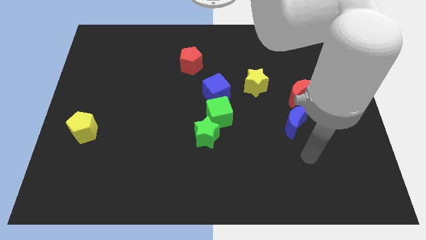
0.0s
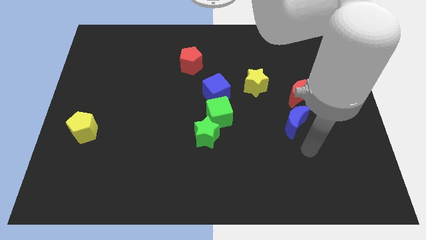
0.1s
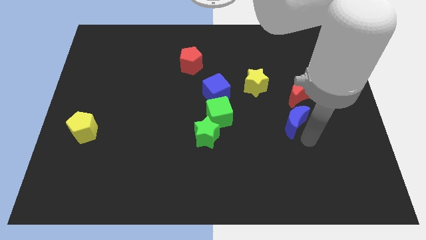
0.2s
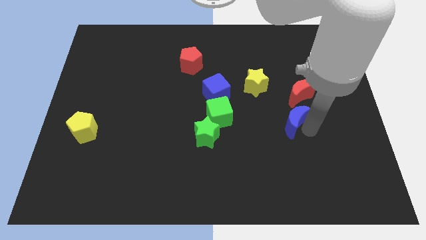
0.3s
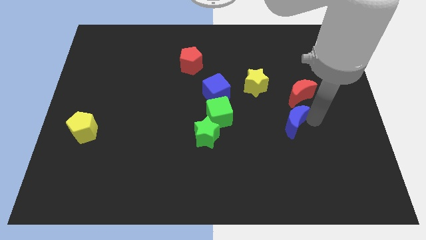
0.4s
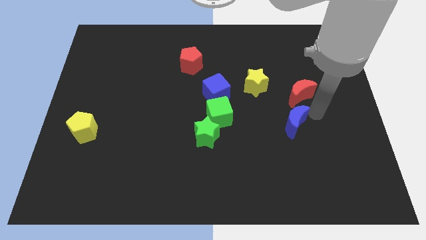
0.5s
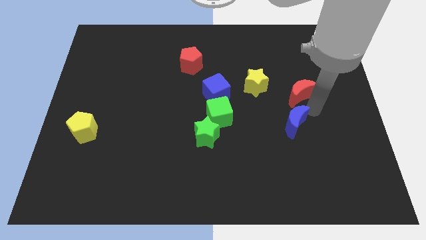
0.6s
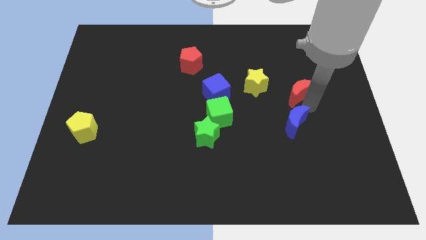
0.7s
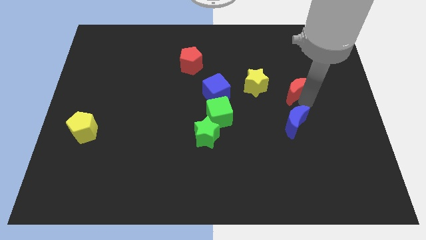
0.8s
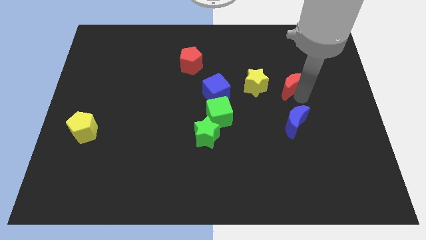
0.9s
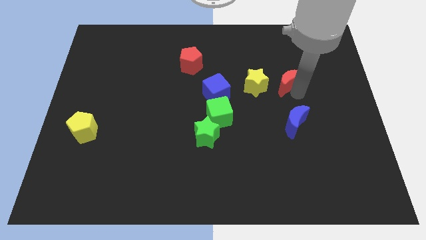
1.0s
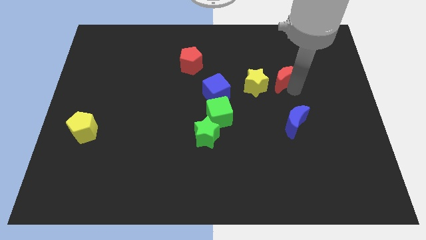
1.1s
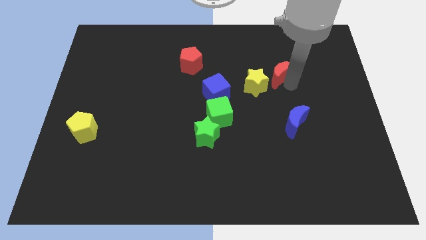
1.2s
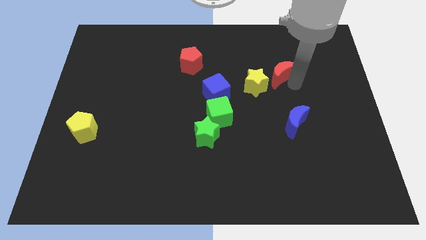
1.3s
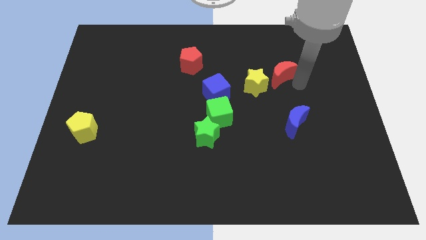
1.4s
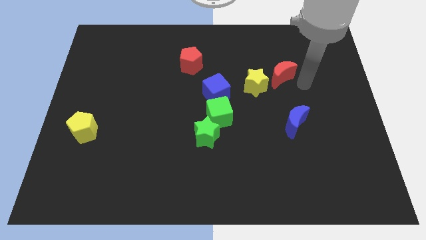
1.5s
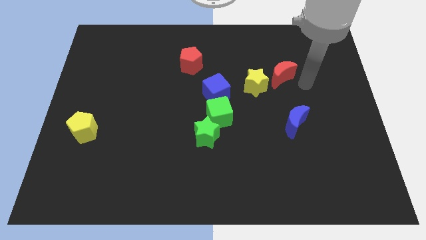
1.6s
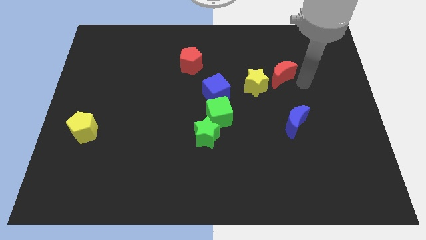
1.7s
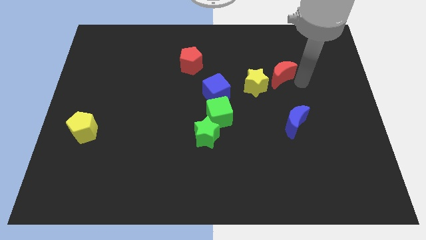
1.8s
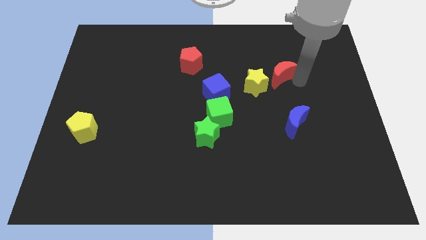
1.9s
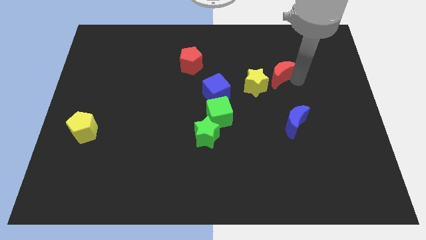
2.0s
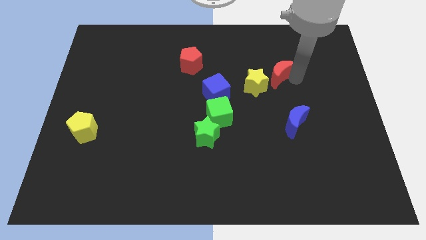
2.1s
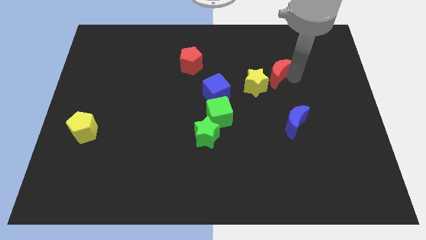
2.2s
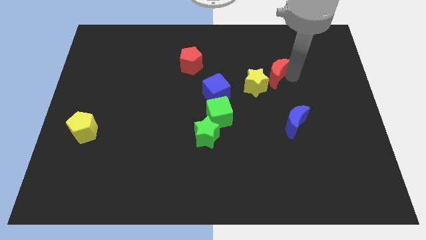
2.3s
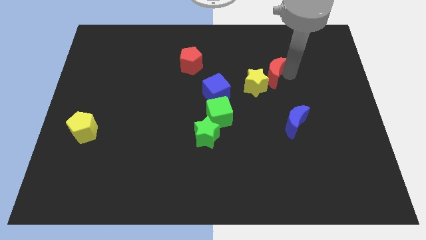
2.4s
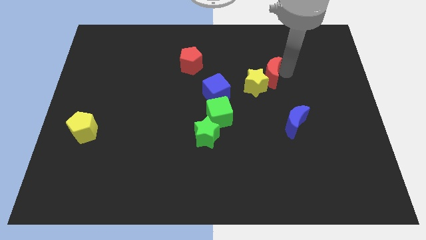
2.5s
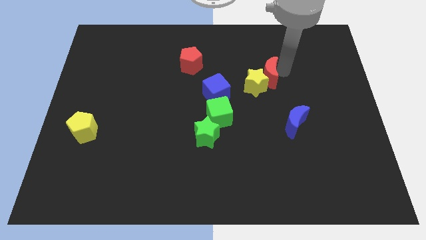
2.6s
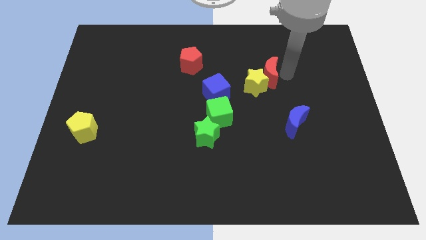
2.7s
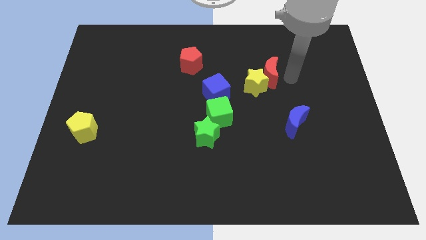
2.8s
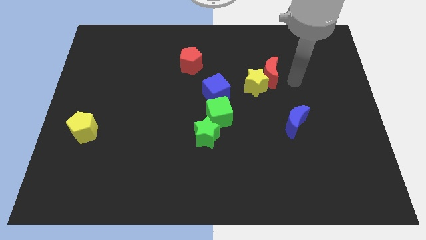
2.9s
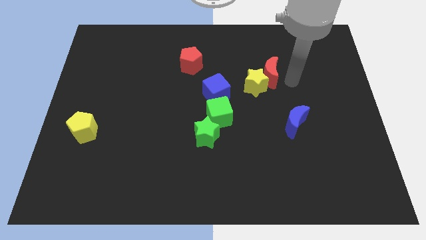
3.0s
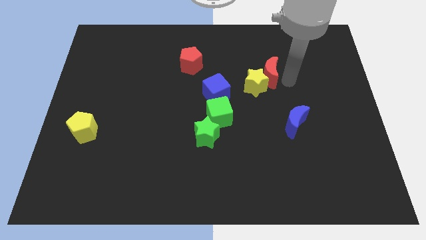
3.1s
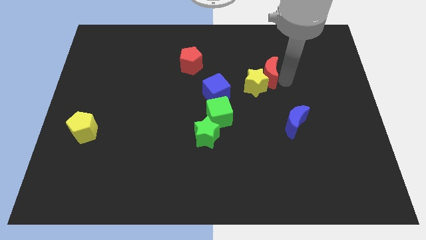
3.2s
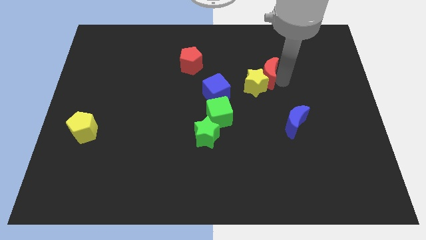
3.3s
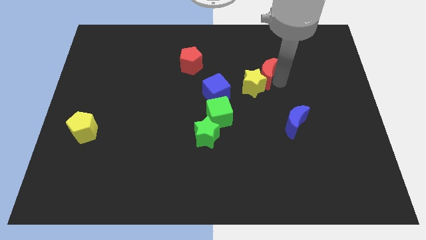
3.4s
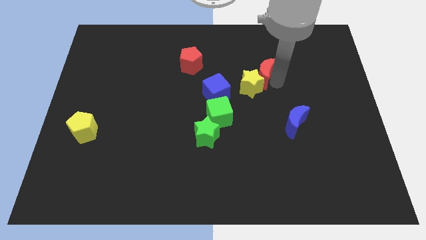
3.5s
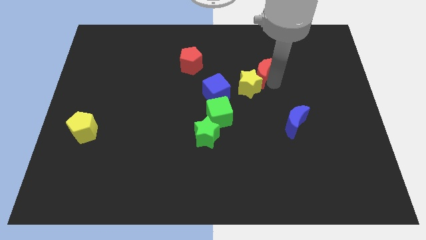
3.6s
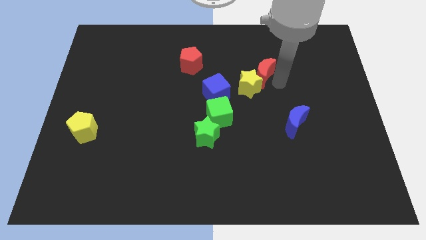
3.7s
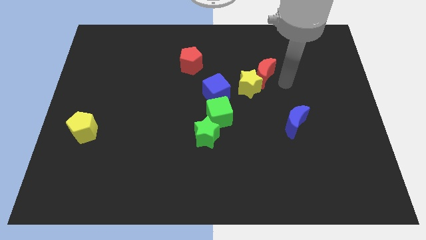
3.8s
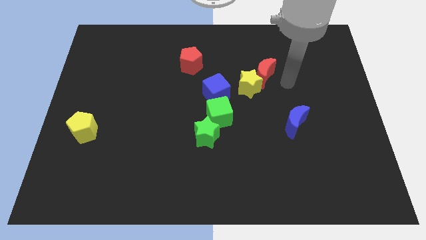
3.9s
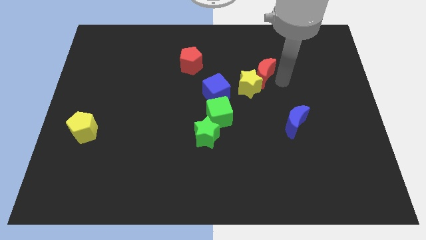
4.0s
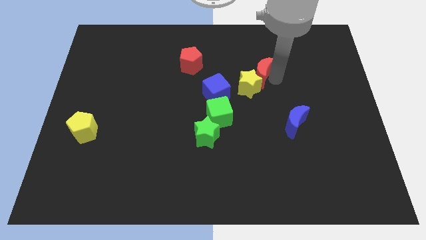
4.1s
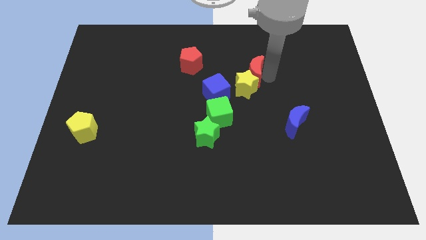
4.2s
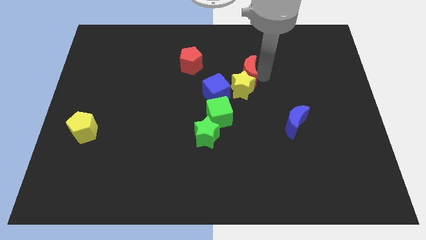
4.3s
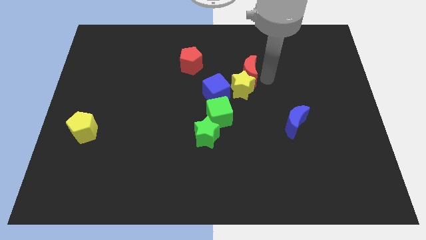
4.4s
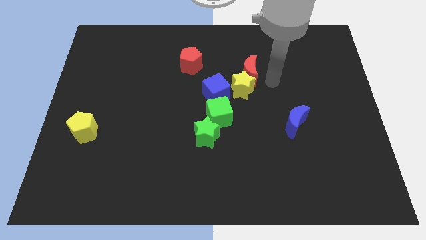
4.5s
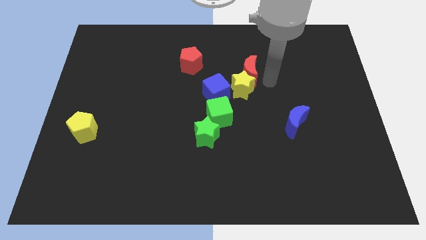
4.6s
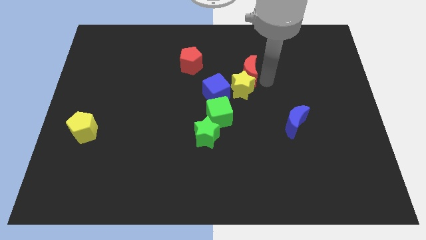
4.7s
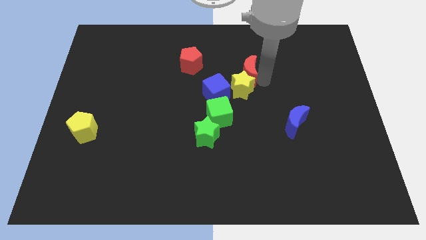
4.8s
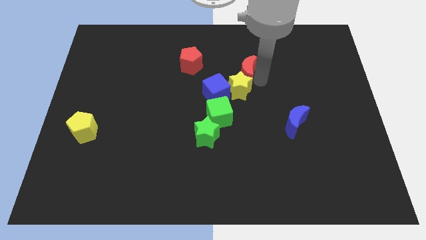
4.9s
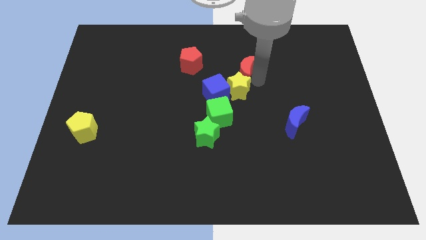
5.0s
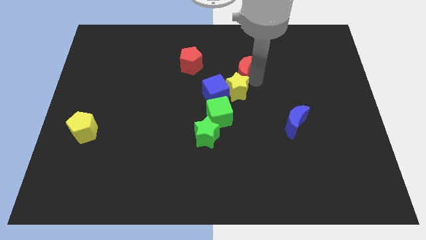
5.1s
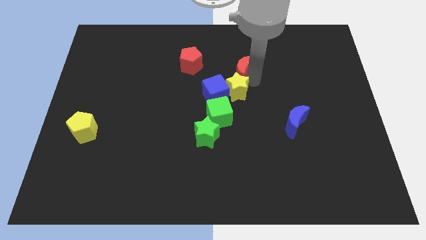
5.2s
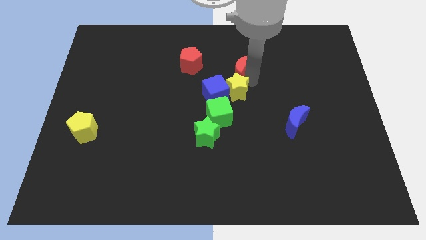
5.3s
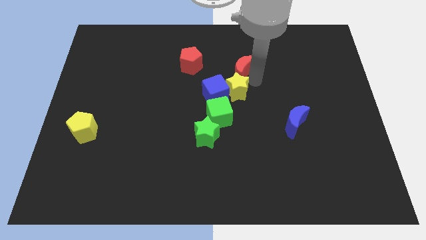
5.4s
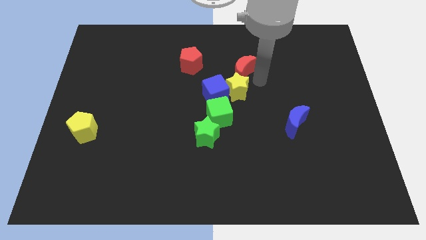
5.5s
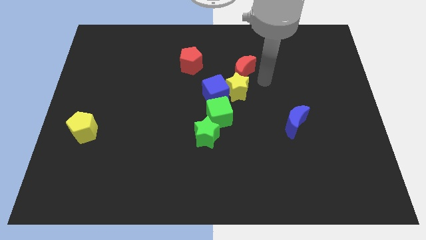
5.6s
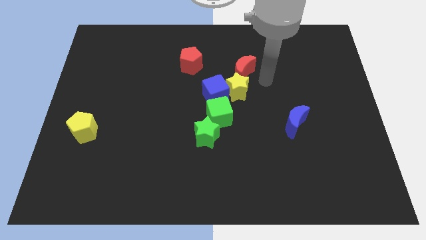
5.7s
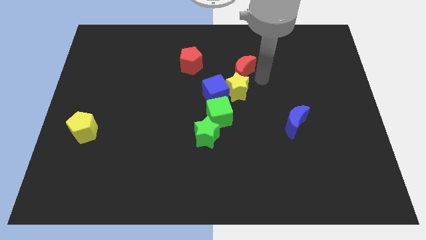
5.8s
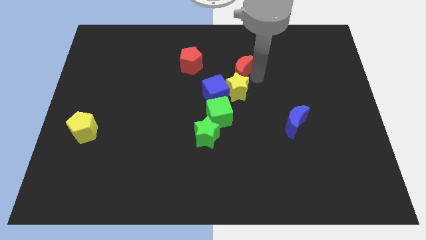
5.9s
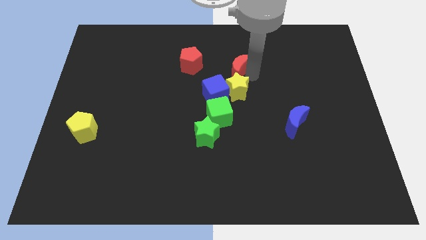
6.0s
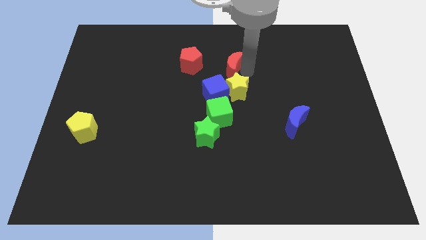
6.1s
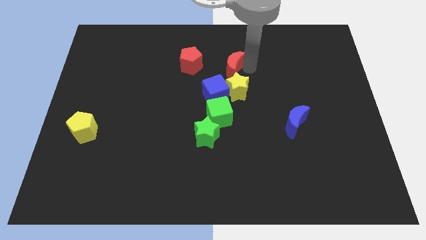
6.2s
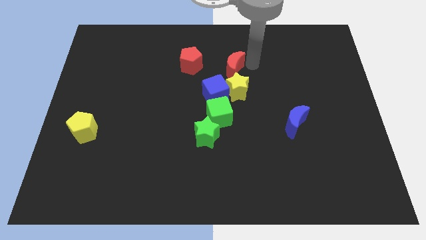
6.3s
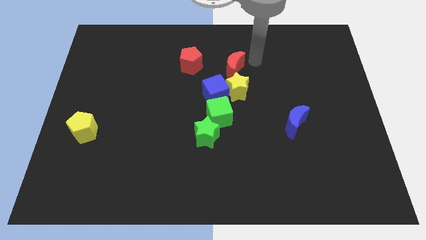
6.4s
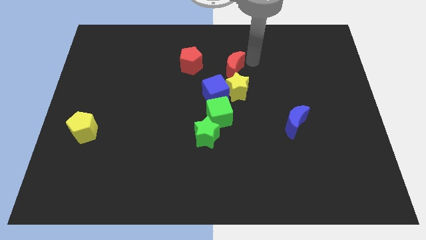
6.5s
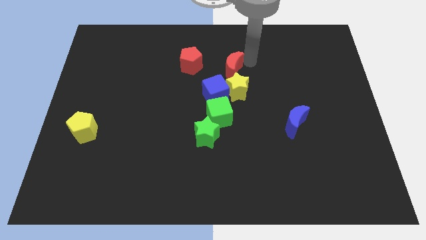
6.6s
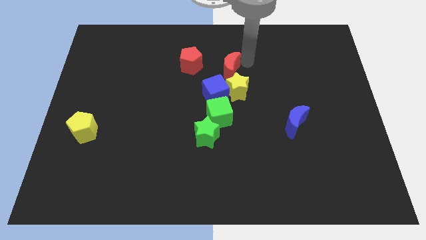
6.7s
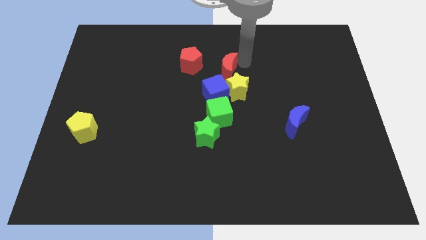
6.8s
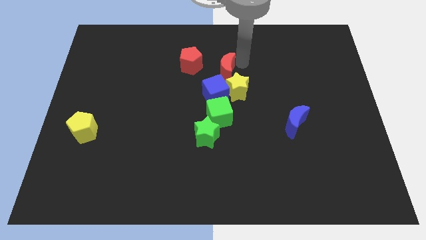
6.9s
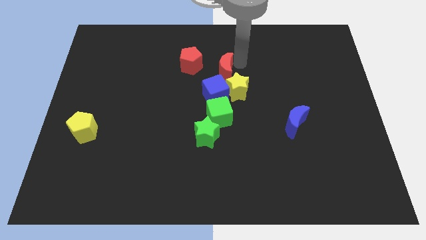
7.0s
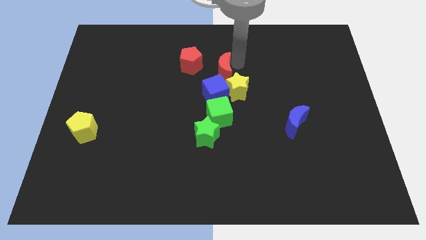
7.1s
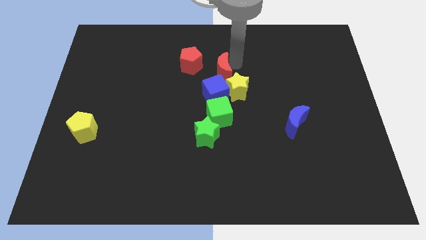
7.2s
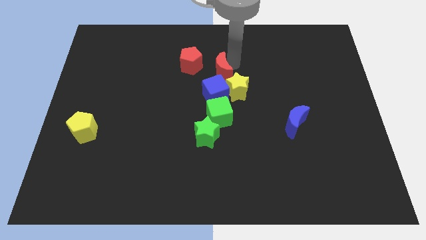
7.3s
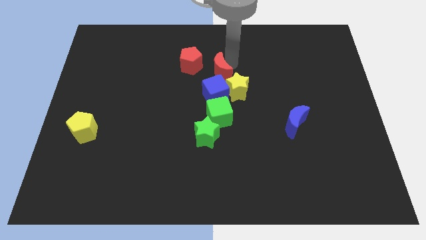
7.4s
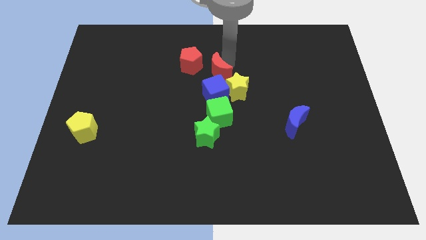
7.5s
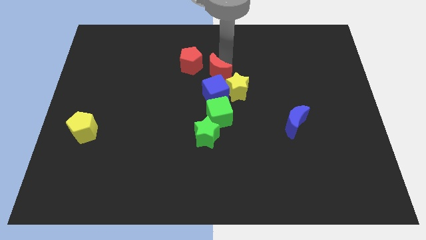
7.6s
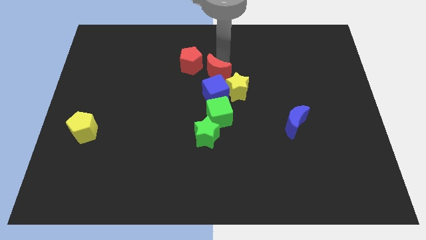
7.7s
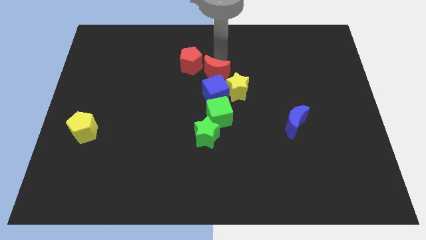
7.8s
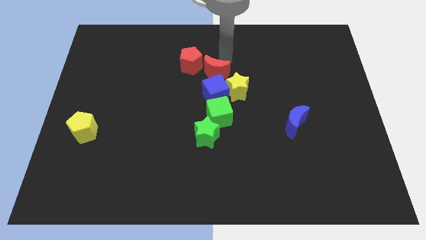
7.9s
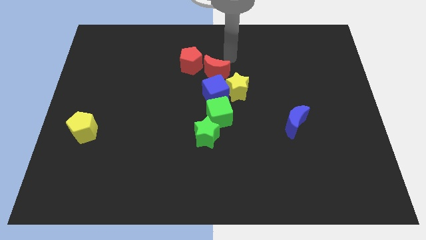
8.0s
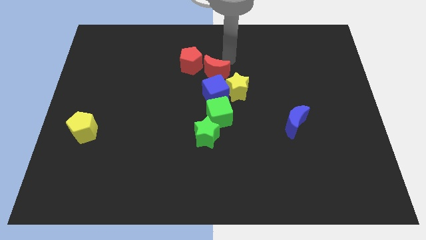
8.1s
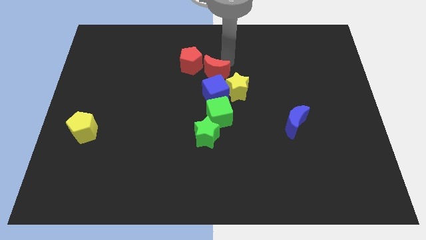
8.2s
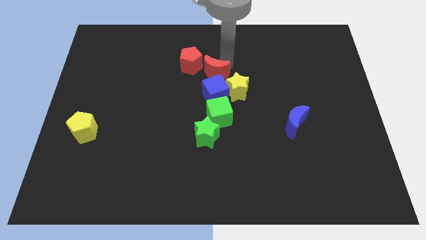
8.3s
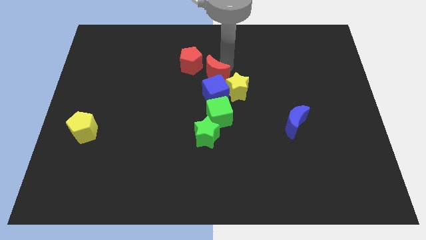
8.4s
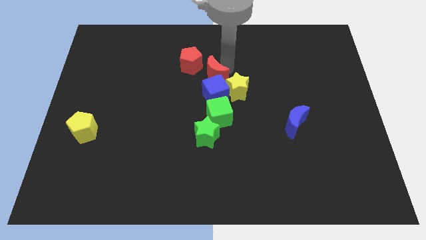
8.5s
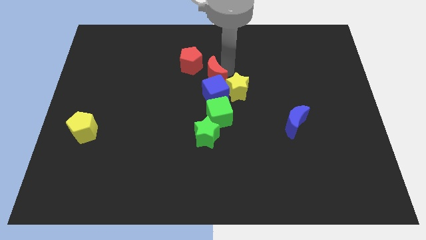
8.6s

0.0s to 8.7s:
push the red moon to the left of the yellow star
